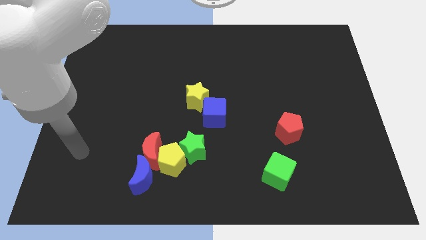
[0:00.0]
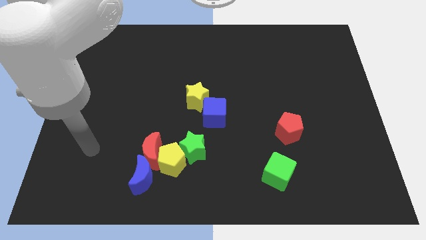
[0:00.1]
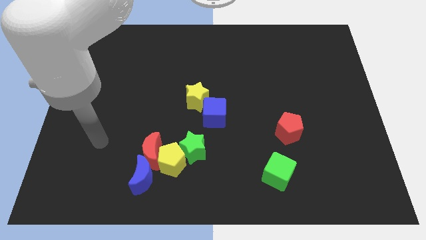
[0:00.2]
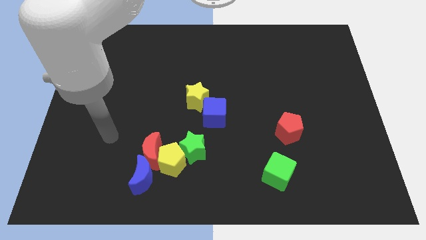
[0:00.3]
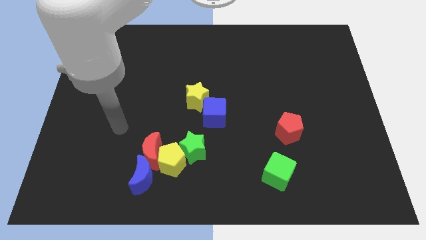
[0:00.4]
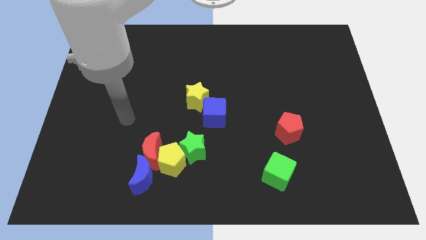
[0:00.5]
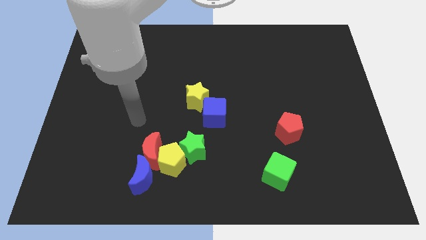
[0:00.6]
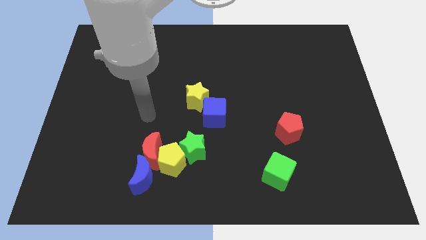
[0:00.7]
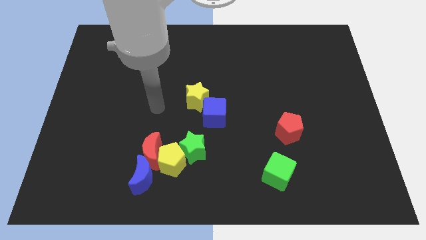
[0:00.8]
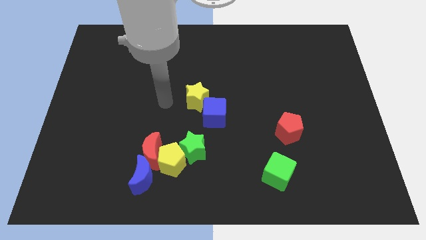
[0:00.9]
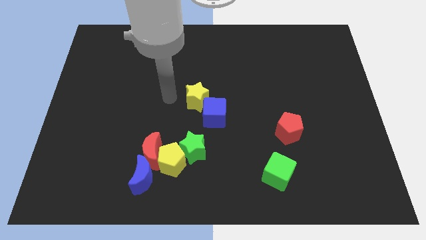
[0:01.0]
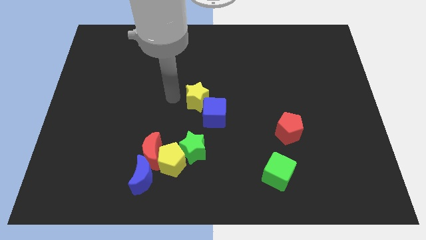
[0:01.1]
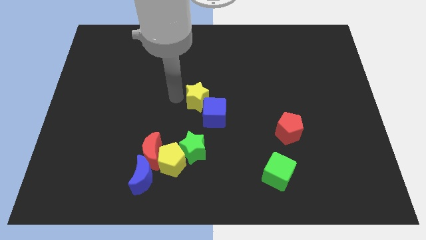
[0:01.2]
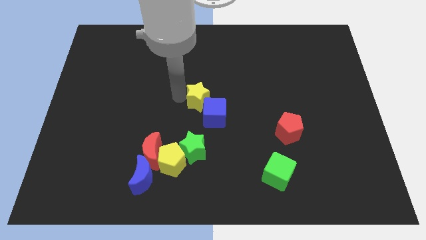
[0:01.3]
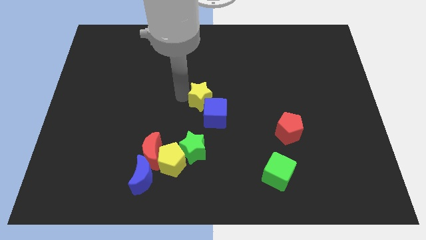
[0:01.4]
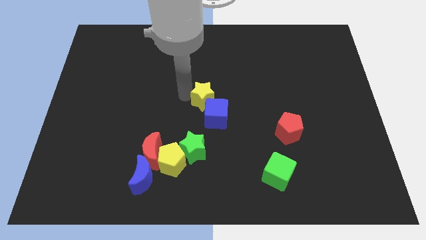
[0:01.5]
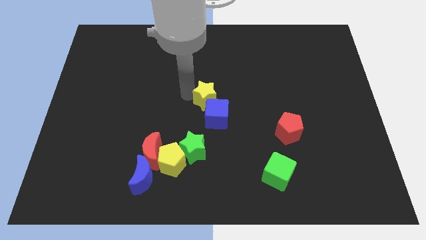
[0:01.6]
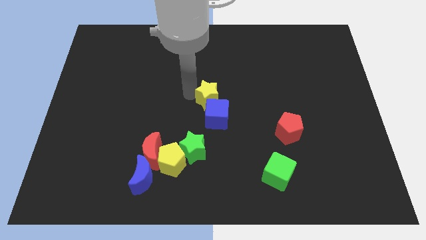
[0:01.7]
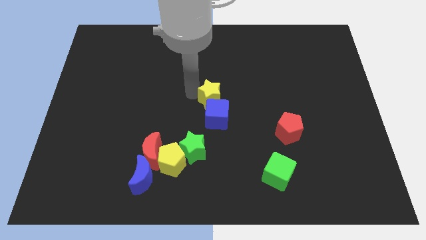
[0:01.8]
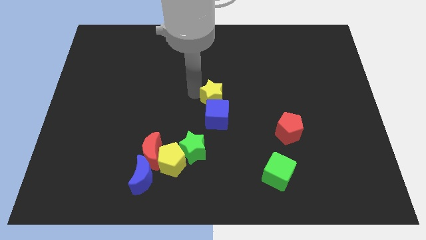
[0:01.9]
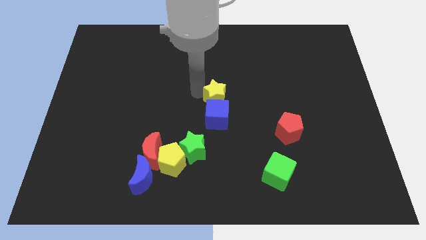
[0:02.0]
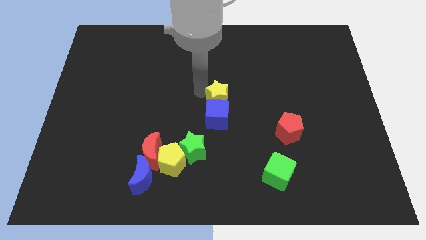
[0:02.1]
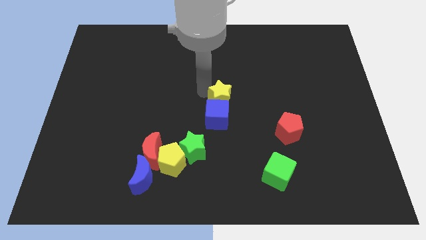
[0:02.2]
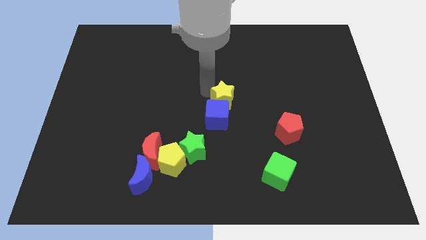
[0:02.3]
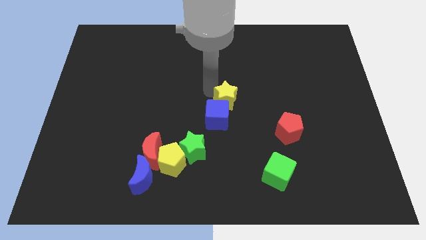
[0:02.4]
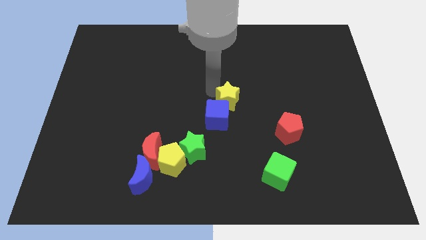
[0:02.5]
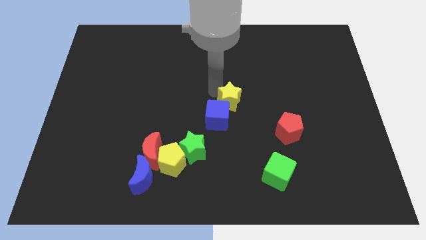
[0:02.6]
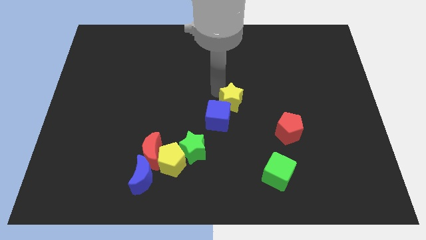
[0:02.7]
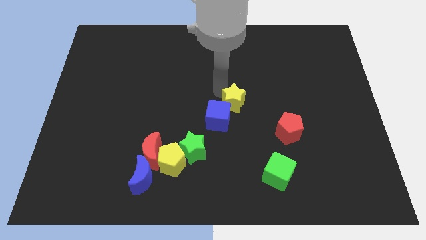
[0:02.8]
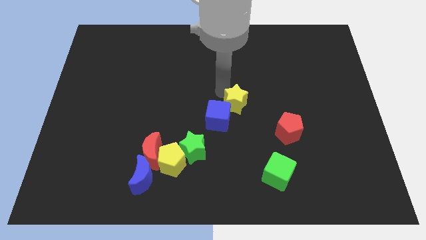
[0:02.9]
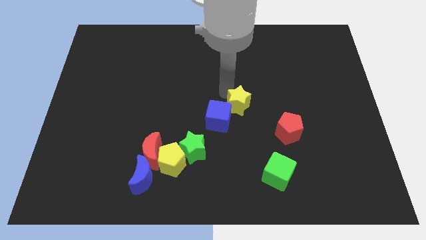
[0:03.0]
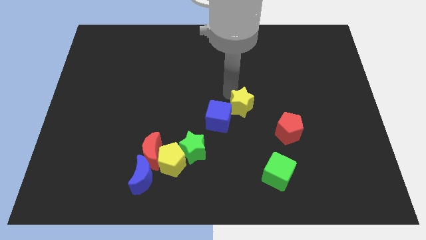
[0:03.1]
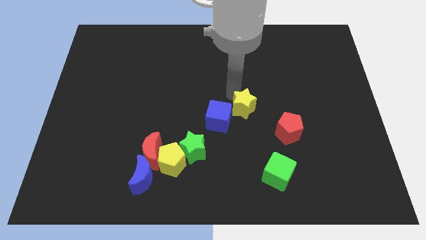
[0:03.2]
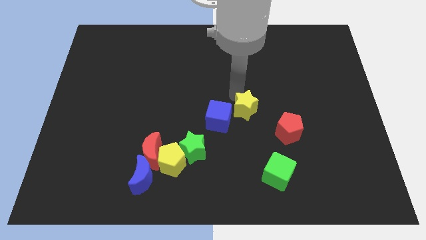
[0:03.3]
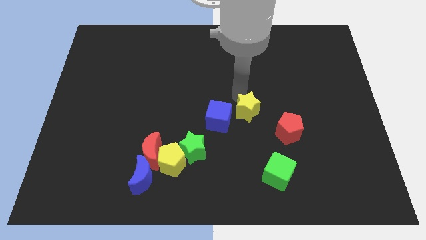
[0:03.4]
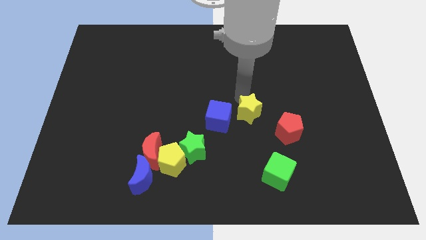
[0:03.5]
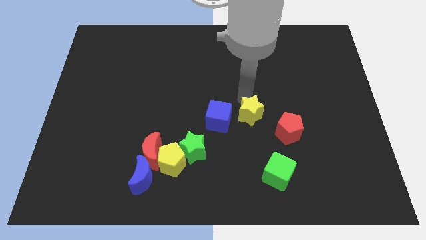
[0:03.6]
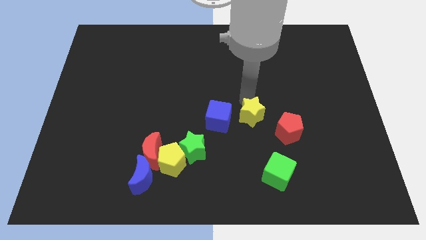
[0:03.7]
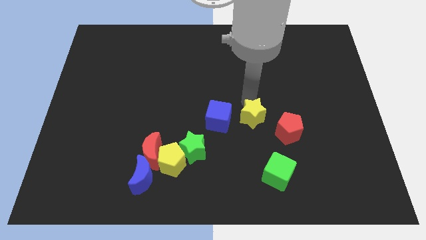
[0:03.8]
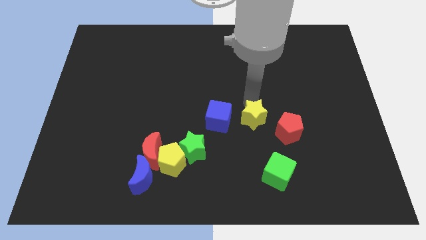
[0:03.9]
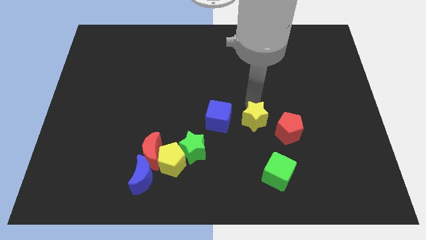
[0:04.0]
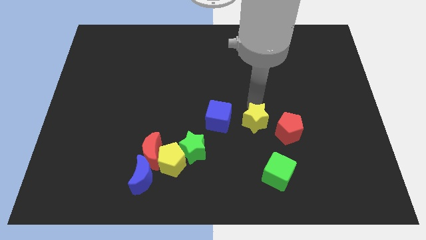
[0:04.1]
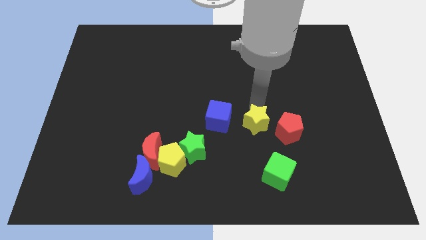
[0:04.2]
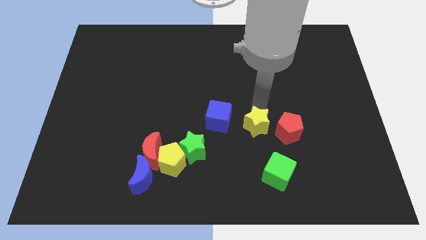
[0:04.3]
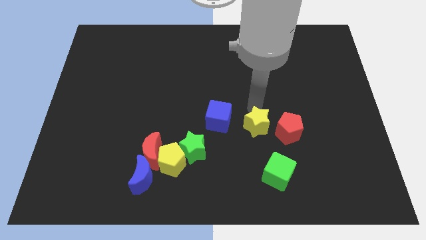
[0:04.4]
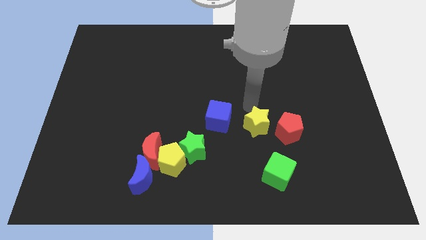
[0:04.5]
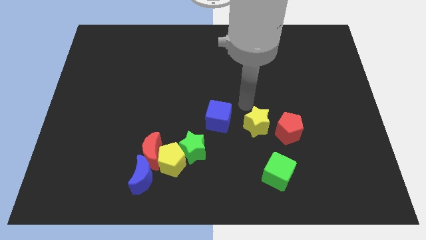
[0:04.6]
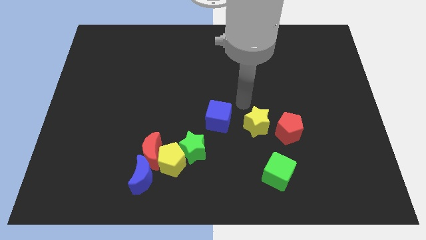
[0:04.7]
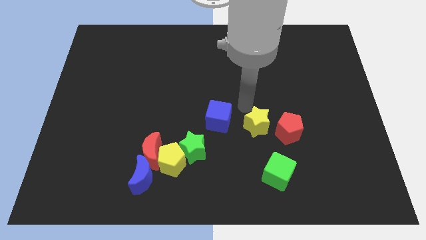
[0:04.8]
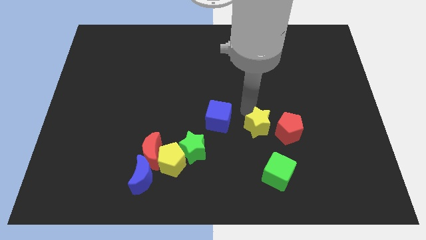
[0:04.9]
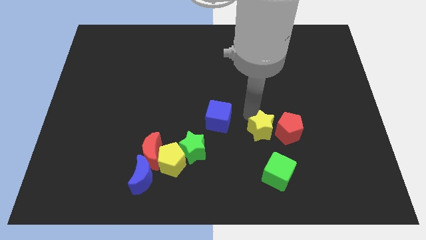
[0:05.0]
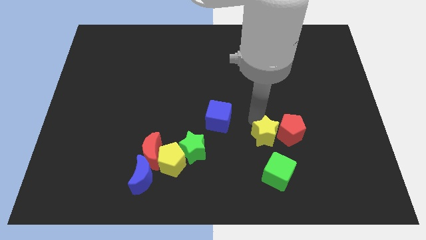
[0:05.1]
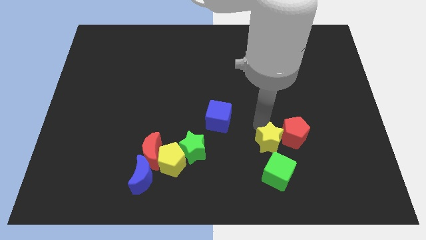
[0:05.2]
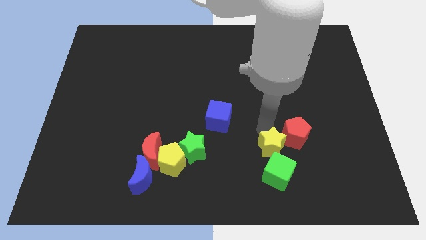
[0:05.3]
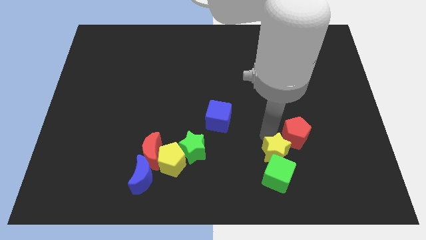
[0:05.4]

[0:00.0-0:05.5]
slide the yellow star next to the green cube

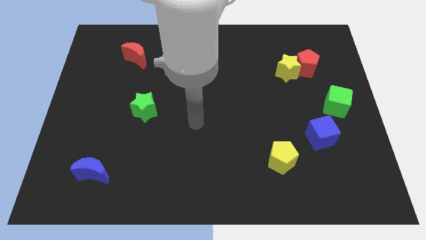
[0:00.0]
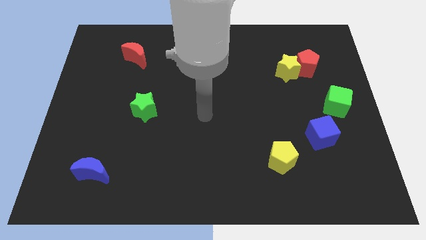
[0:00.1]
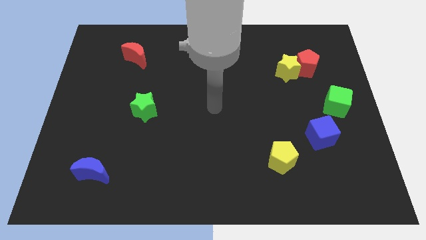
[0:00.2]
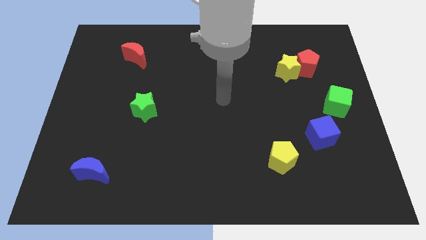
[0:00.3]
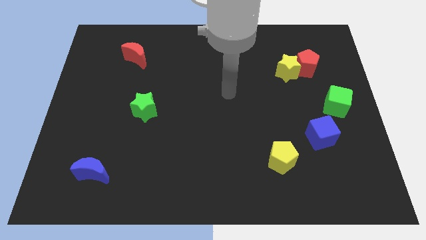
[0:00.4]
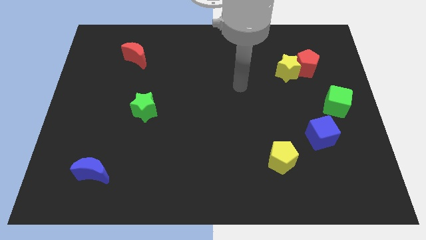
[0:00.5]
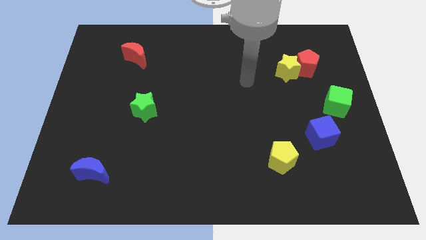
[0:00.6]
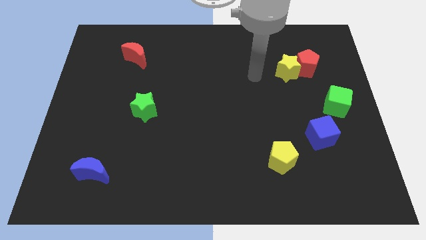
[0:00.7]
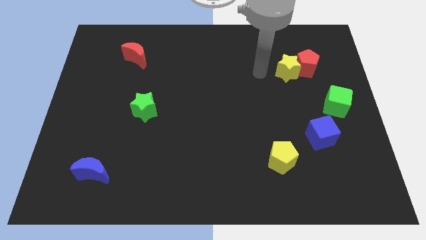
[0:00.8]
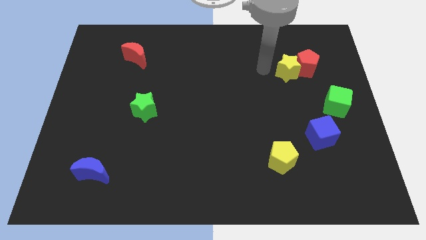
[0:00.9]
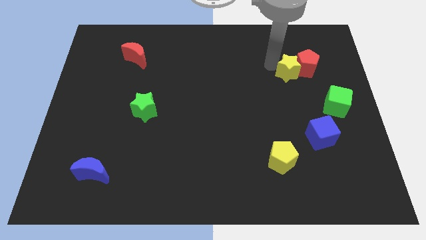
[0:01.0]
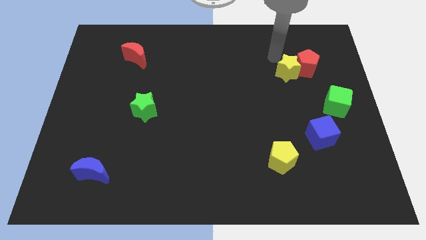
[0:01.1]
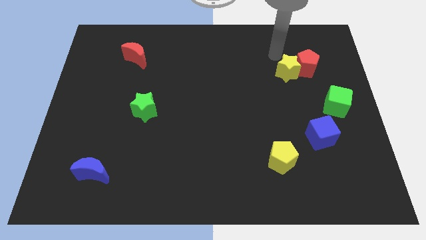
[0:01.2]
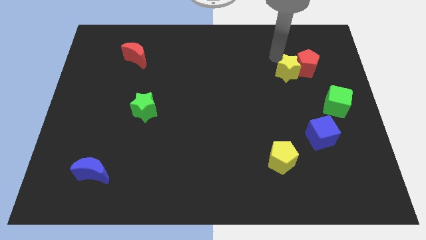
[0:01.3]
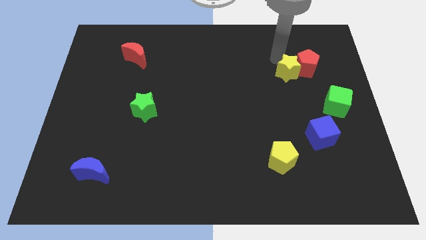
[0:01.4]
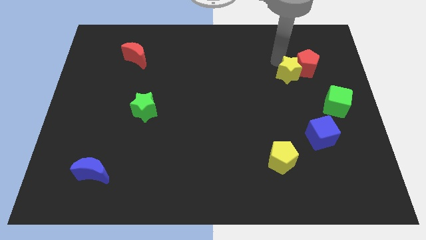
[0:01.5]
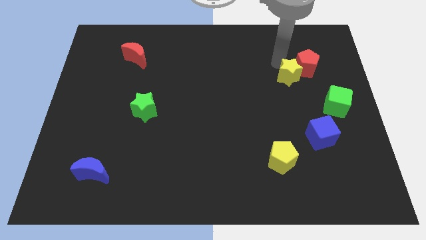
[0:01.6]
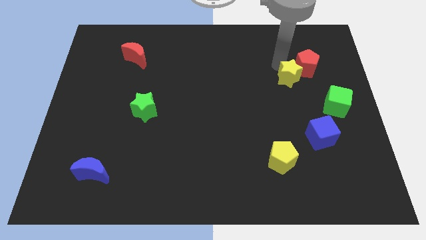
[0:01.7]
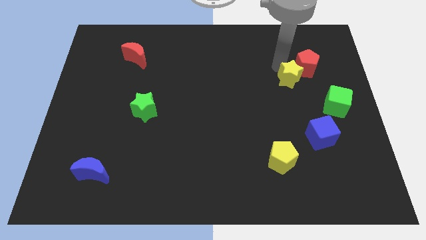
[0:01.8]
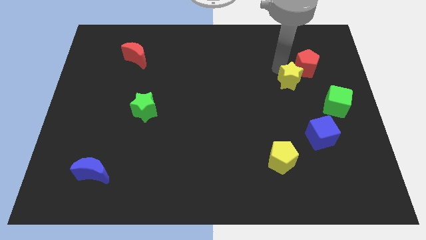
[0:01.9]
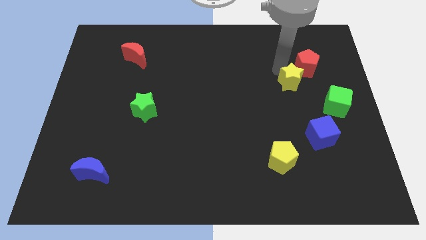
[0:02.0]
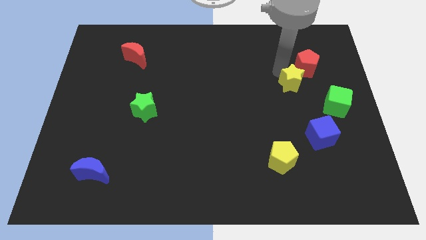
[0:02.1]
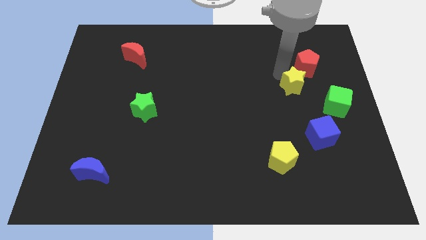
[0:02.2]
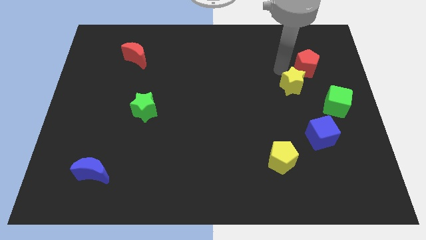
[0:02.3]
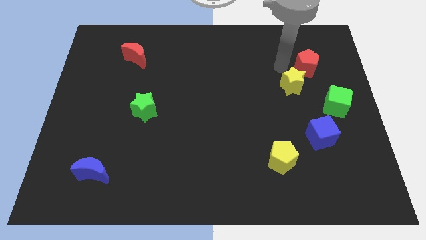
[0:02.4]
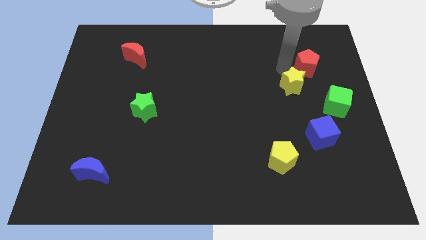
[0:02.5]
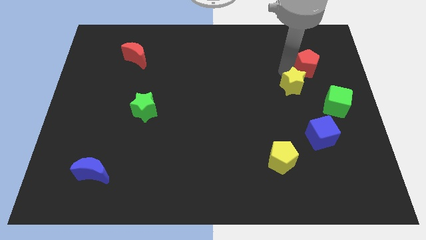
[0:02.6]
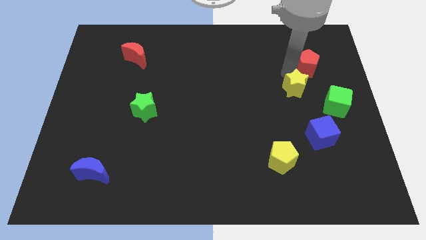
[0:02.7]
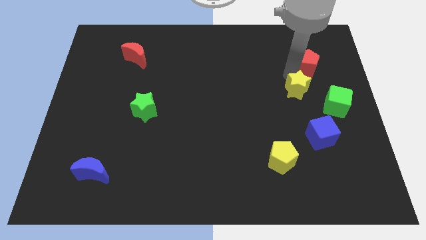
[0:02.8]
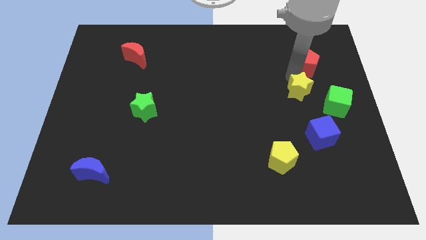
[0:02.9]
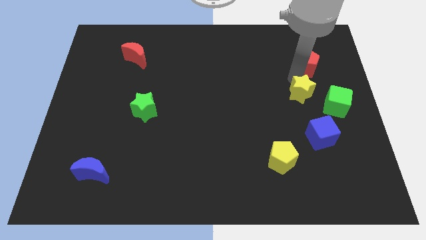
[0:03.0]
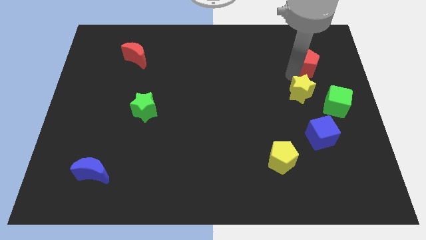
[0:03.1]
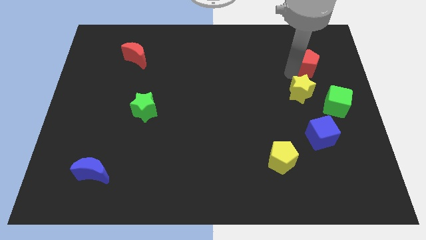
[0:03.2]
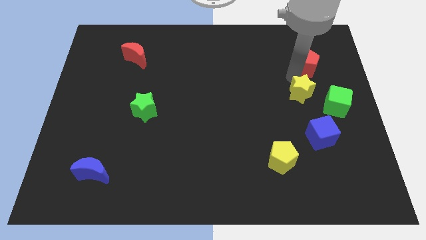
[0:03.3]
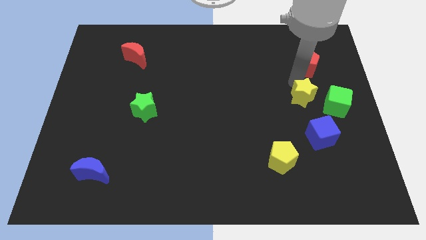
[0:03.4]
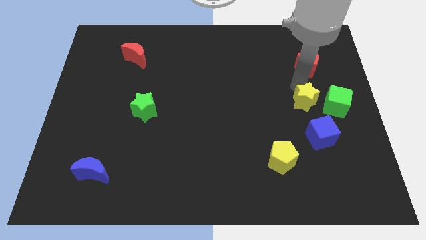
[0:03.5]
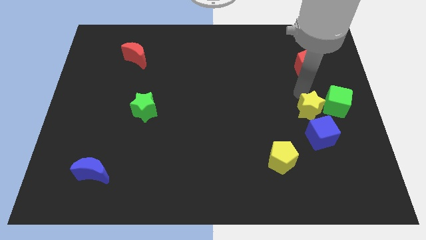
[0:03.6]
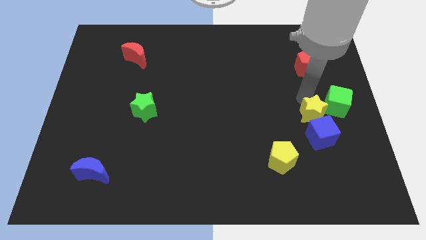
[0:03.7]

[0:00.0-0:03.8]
slide the yellow star next to the blue cube
